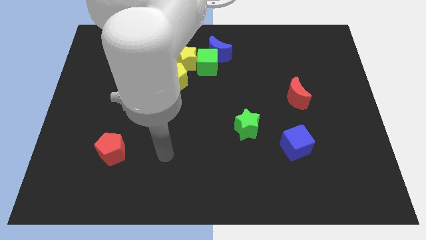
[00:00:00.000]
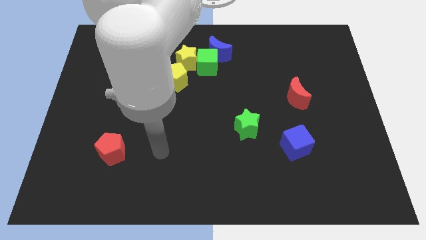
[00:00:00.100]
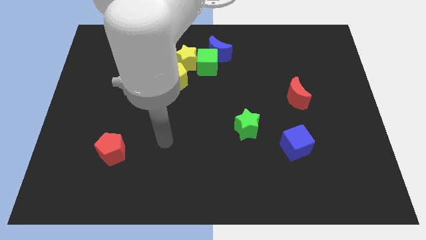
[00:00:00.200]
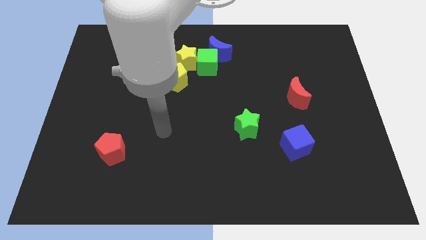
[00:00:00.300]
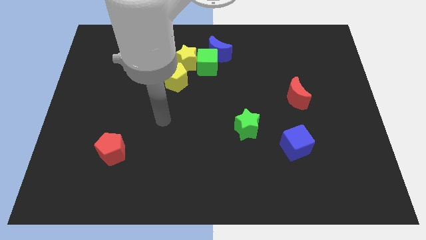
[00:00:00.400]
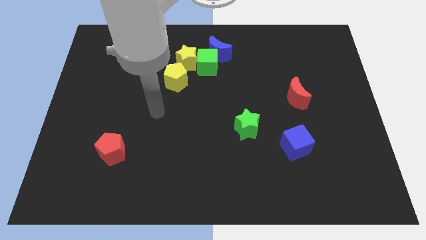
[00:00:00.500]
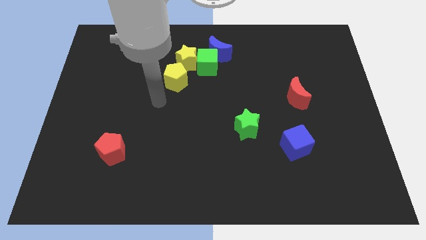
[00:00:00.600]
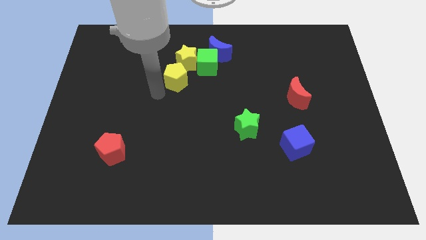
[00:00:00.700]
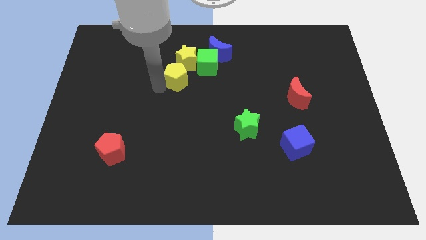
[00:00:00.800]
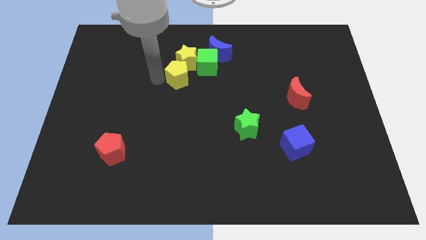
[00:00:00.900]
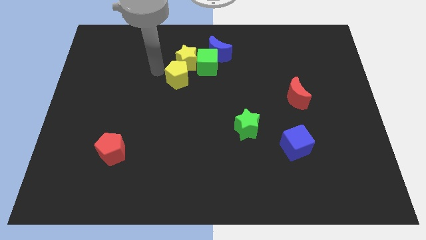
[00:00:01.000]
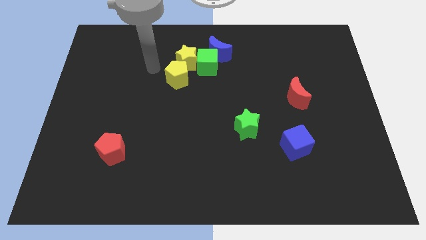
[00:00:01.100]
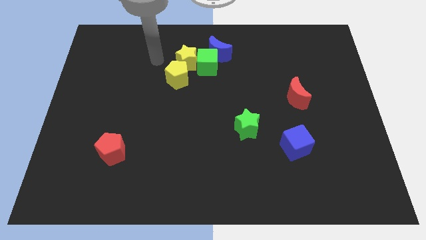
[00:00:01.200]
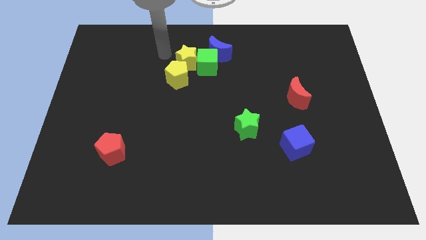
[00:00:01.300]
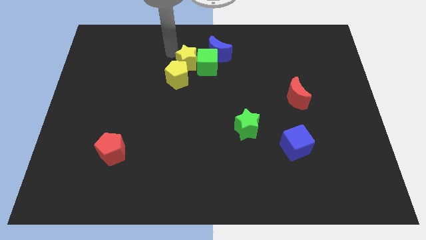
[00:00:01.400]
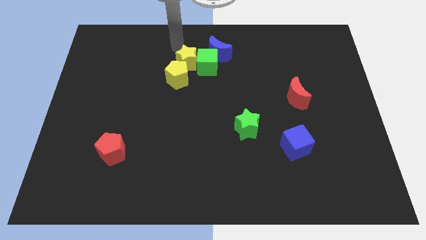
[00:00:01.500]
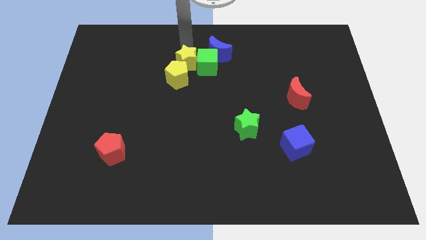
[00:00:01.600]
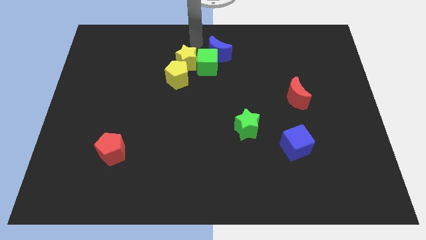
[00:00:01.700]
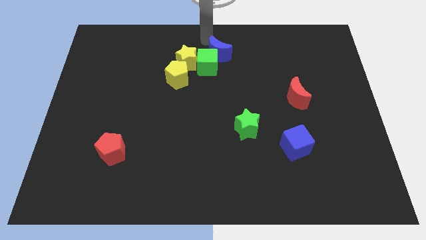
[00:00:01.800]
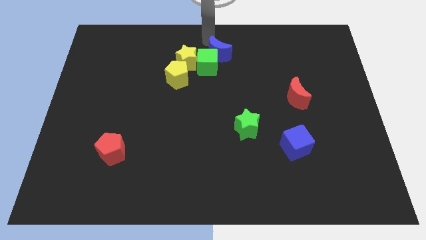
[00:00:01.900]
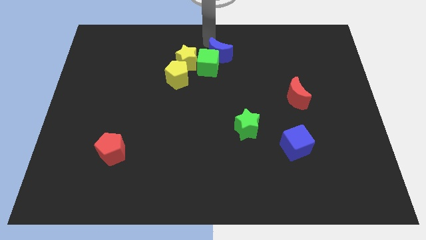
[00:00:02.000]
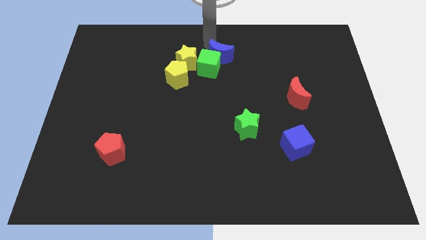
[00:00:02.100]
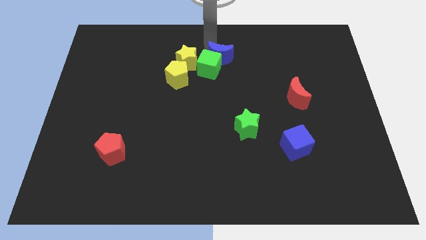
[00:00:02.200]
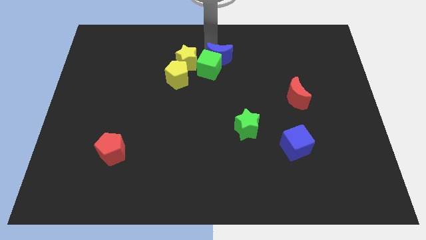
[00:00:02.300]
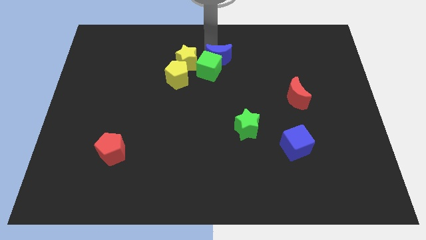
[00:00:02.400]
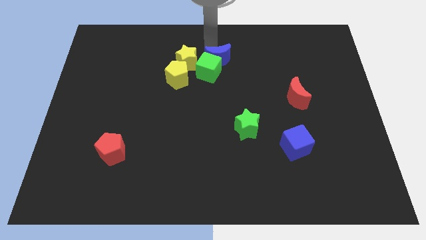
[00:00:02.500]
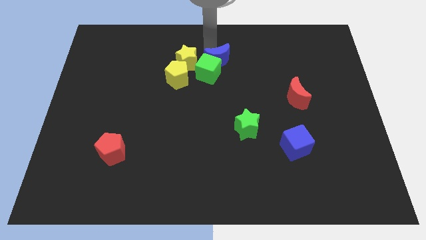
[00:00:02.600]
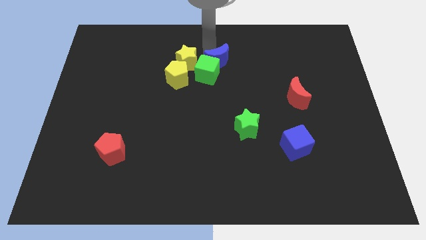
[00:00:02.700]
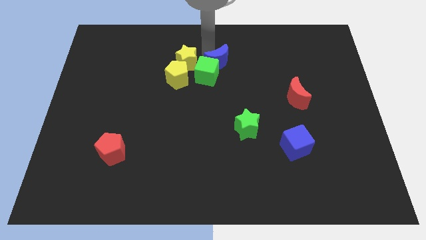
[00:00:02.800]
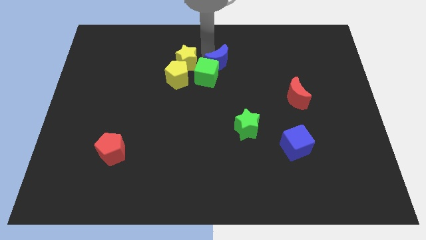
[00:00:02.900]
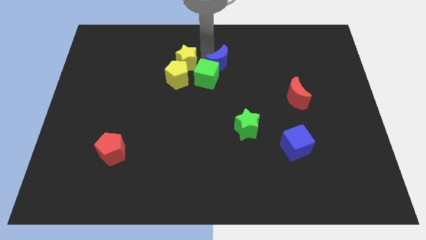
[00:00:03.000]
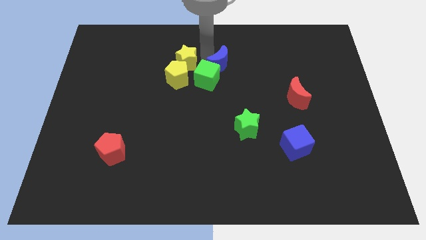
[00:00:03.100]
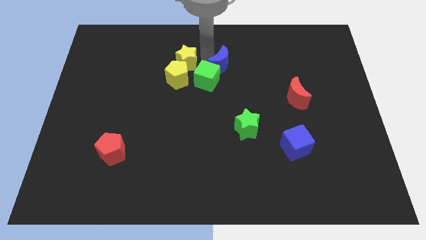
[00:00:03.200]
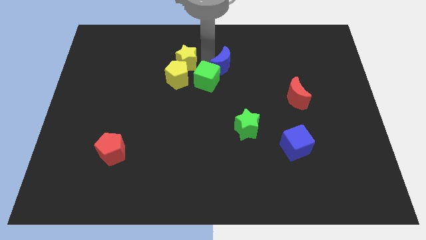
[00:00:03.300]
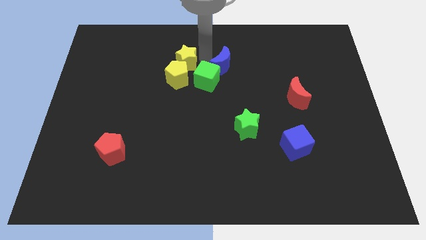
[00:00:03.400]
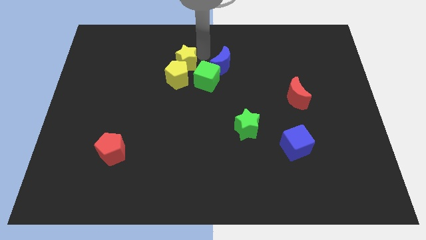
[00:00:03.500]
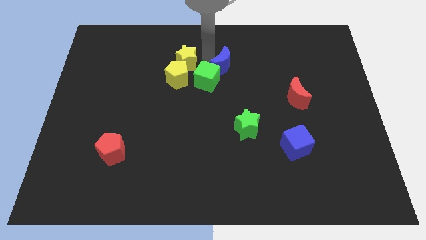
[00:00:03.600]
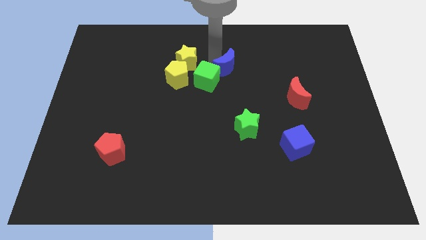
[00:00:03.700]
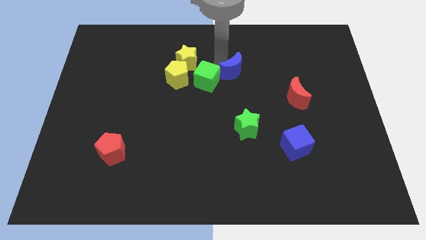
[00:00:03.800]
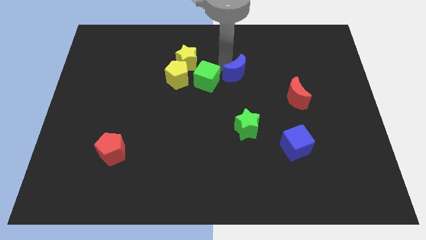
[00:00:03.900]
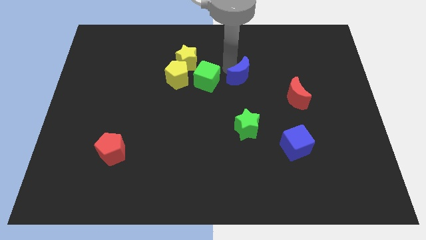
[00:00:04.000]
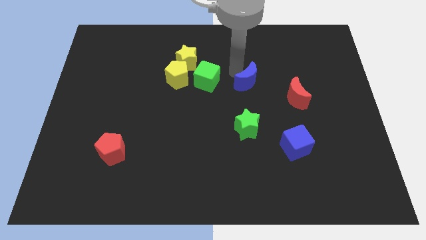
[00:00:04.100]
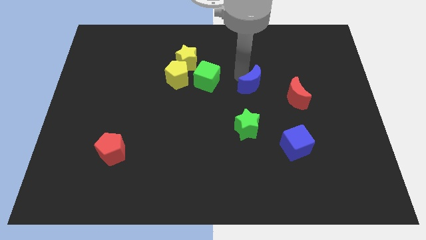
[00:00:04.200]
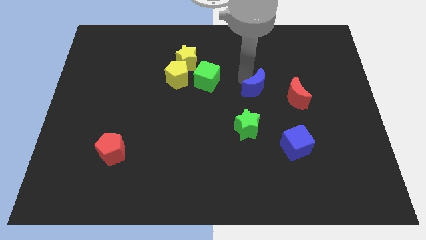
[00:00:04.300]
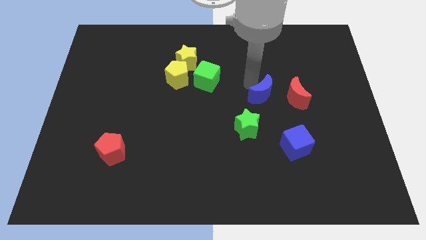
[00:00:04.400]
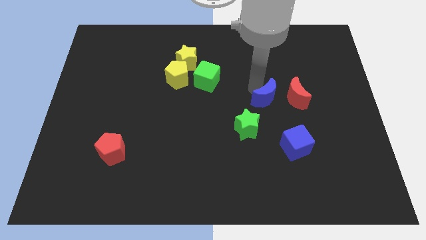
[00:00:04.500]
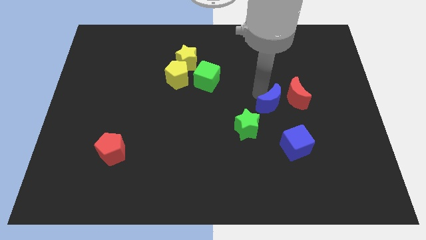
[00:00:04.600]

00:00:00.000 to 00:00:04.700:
move the blue moon diagonally down and to the right

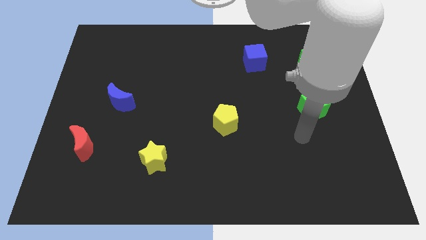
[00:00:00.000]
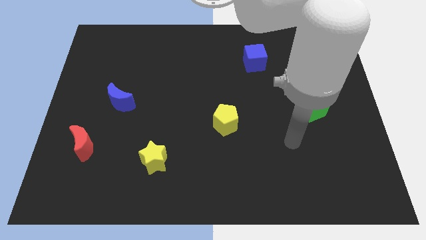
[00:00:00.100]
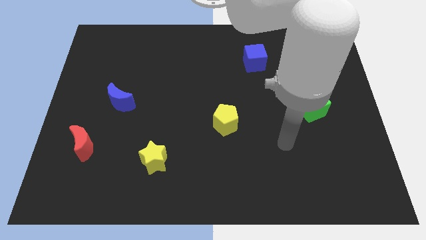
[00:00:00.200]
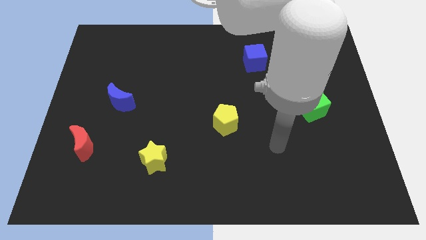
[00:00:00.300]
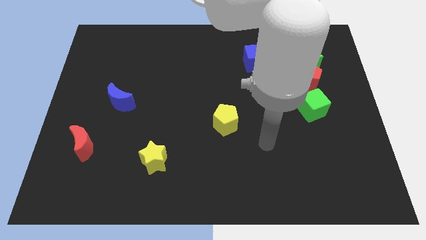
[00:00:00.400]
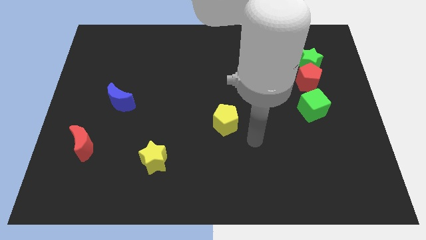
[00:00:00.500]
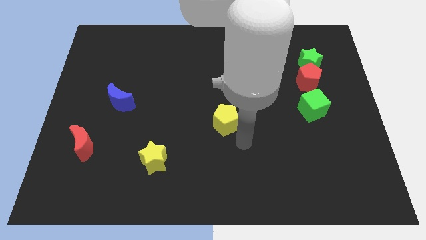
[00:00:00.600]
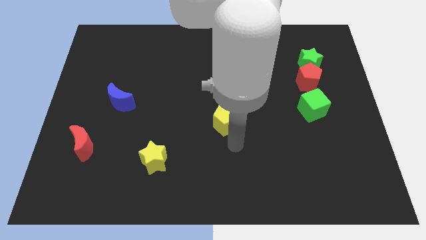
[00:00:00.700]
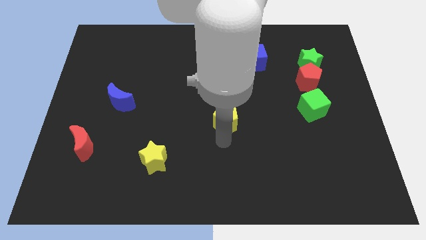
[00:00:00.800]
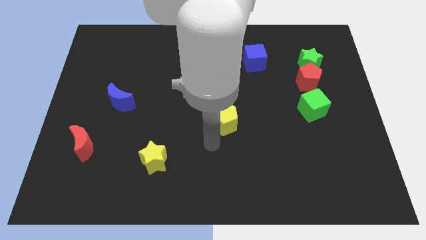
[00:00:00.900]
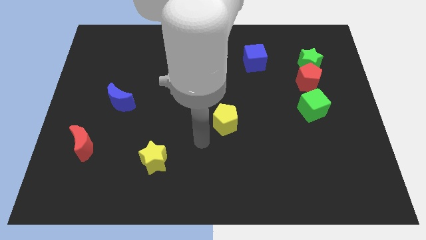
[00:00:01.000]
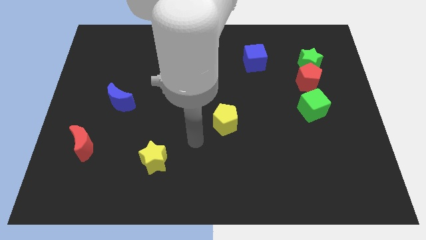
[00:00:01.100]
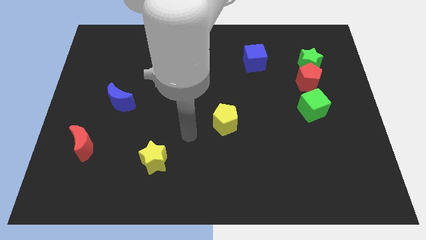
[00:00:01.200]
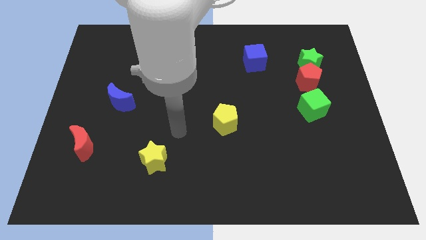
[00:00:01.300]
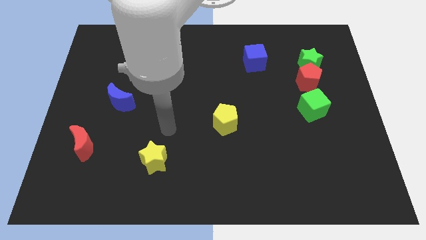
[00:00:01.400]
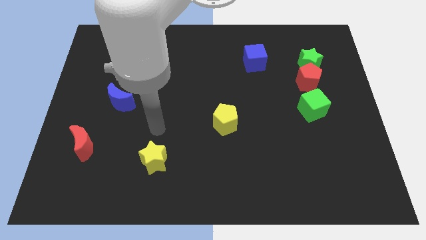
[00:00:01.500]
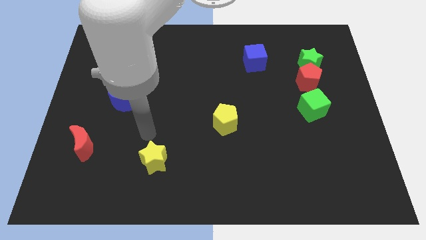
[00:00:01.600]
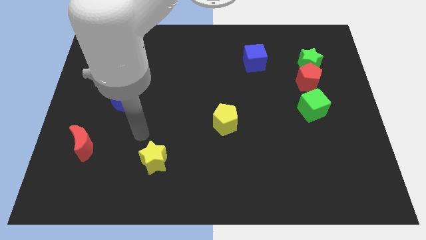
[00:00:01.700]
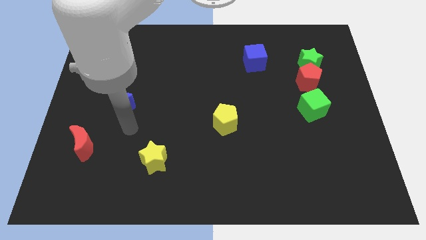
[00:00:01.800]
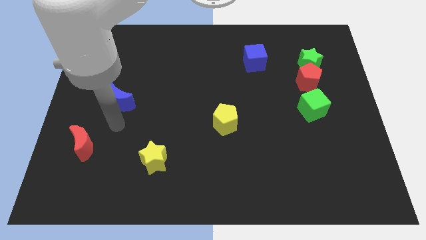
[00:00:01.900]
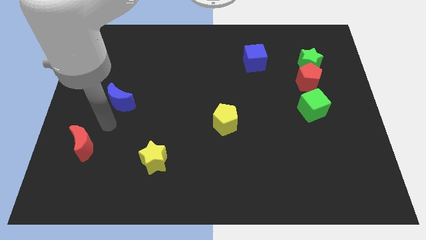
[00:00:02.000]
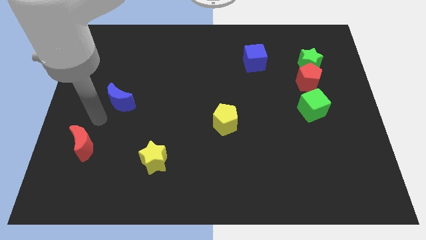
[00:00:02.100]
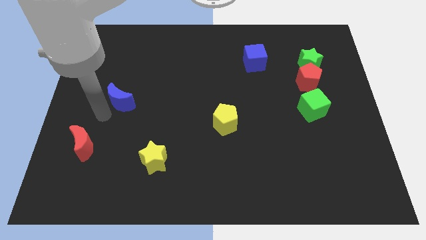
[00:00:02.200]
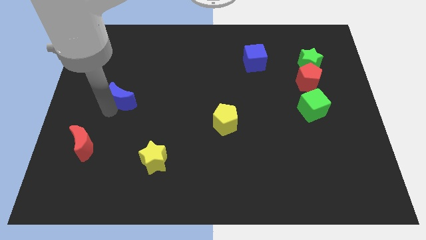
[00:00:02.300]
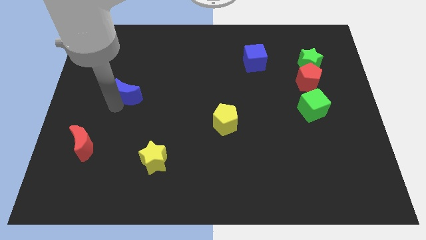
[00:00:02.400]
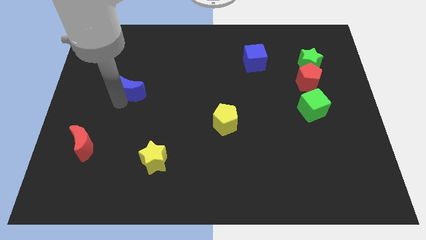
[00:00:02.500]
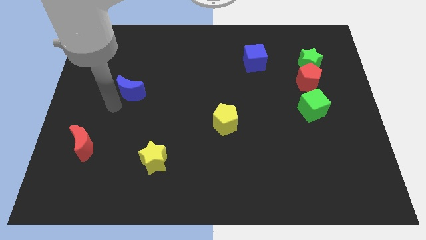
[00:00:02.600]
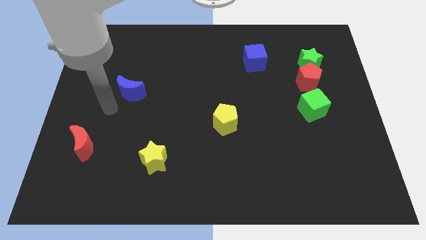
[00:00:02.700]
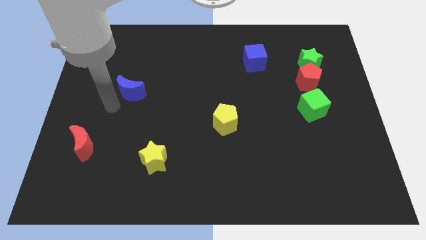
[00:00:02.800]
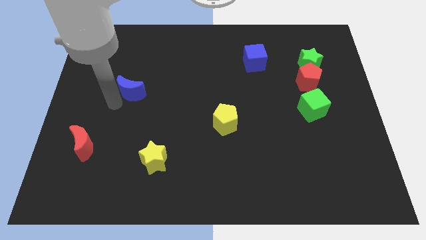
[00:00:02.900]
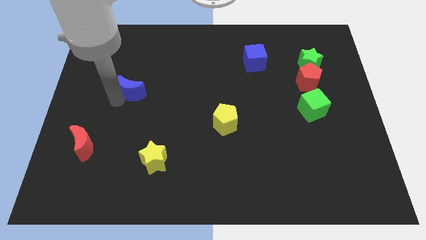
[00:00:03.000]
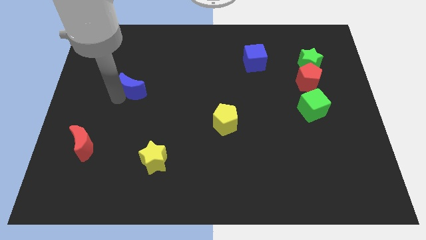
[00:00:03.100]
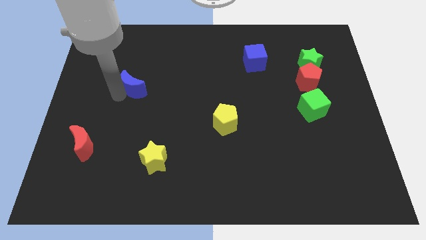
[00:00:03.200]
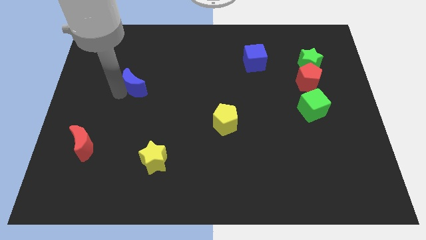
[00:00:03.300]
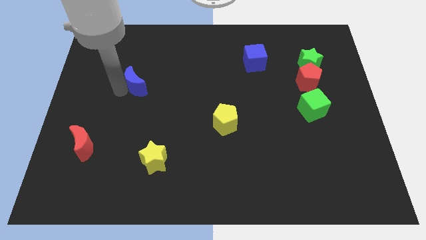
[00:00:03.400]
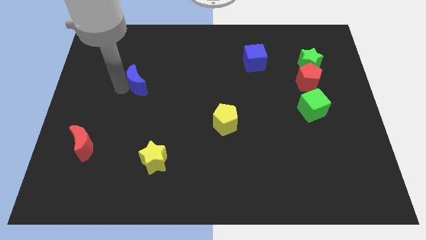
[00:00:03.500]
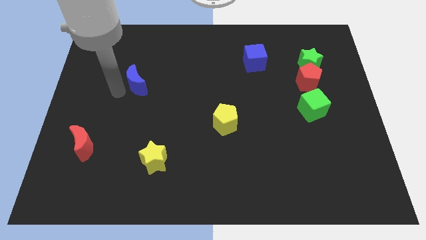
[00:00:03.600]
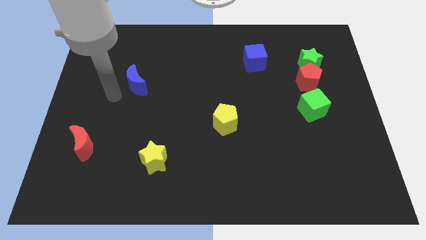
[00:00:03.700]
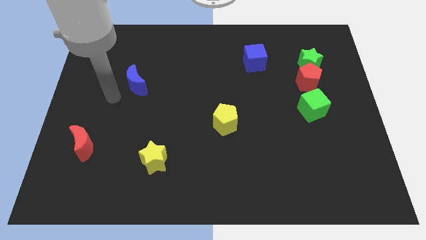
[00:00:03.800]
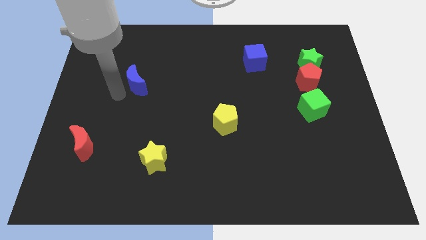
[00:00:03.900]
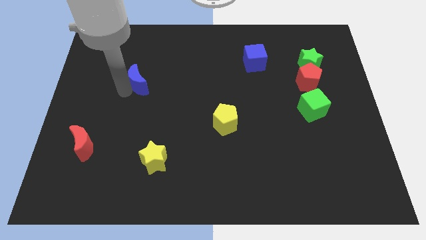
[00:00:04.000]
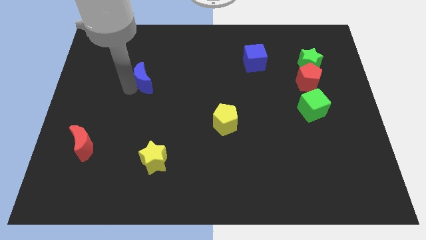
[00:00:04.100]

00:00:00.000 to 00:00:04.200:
slightly slide the blue moon upwards and right
